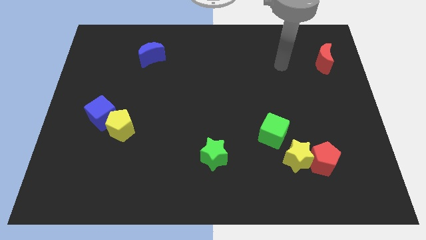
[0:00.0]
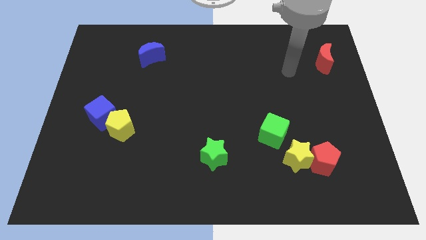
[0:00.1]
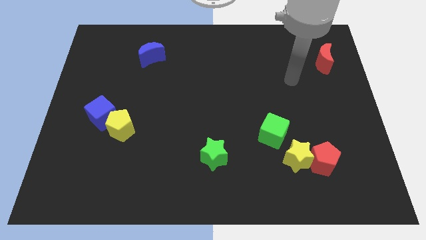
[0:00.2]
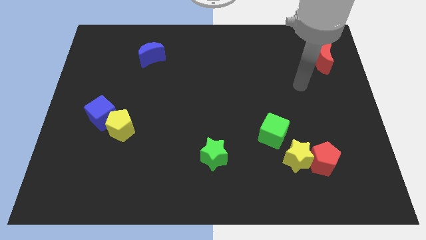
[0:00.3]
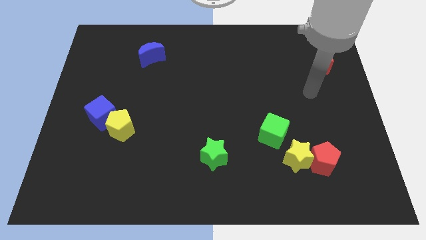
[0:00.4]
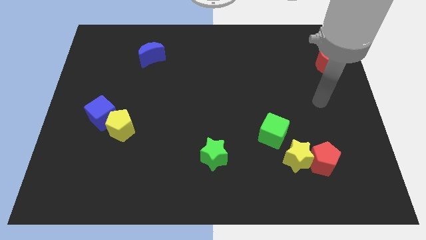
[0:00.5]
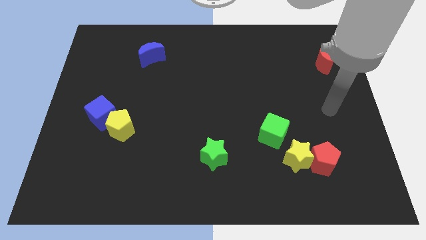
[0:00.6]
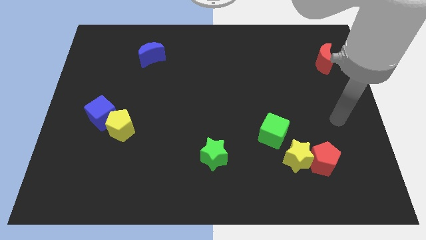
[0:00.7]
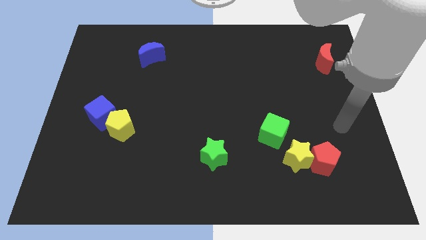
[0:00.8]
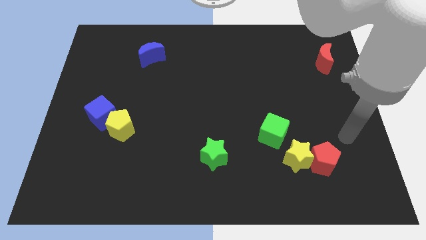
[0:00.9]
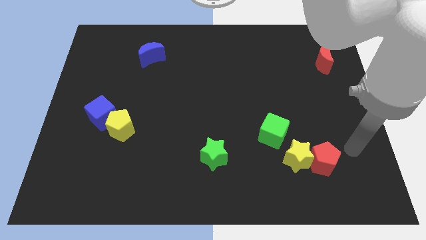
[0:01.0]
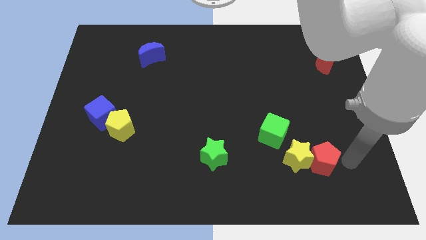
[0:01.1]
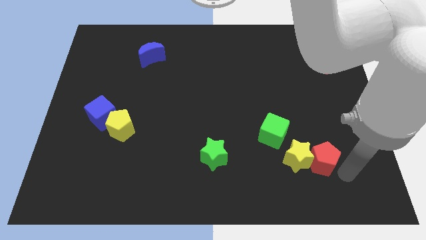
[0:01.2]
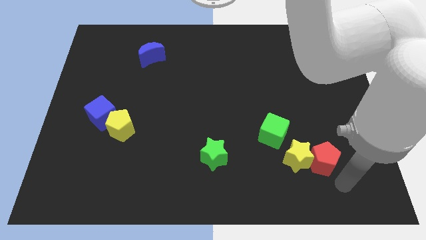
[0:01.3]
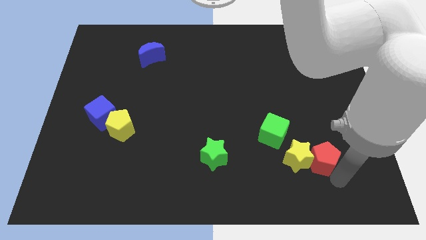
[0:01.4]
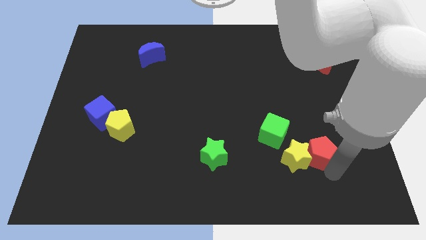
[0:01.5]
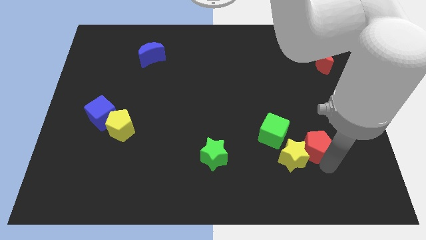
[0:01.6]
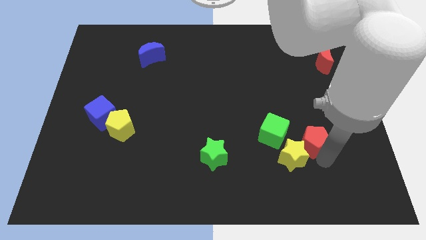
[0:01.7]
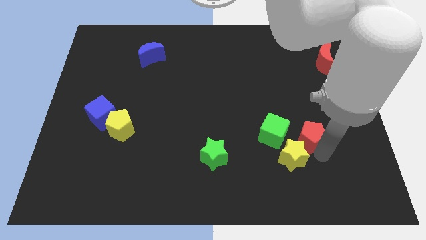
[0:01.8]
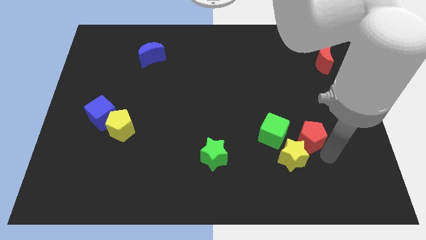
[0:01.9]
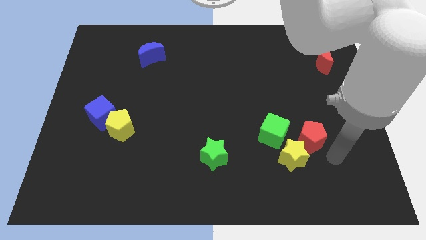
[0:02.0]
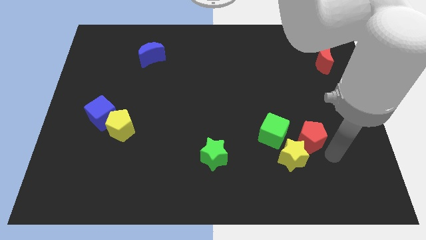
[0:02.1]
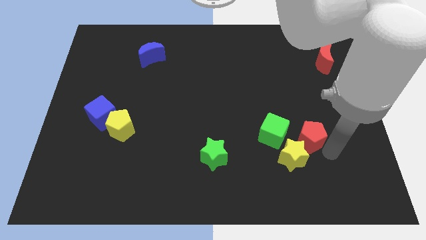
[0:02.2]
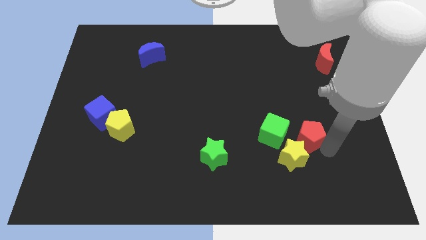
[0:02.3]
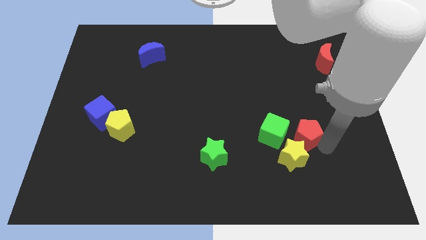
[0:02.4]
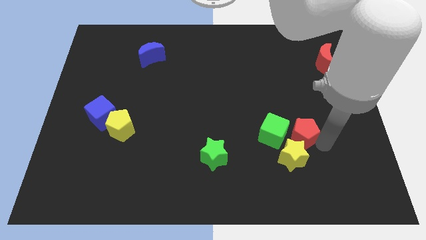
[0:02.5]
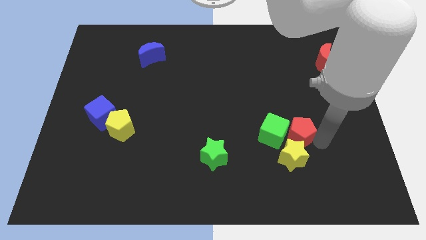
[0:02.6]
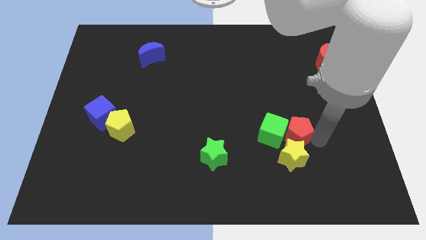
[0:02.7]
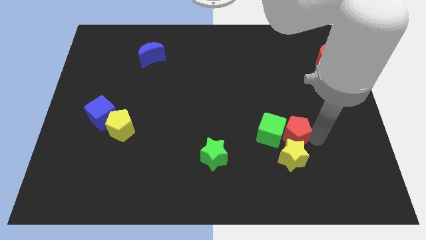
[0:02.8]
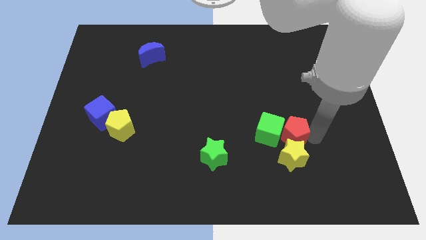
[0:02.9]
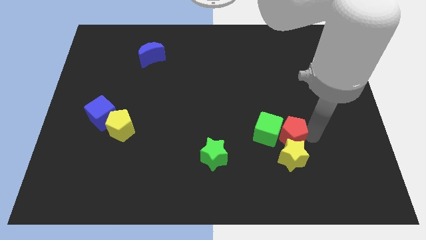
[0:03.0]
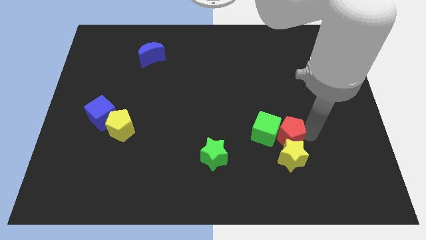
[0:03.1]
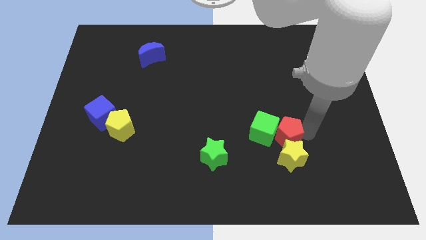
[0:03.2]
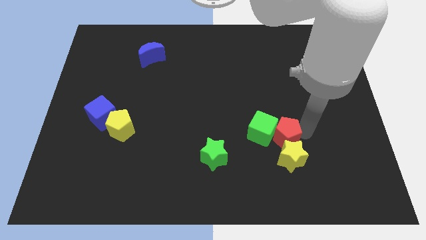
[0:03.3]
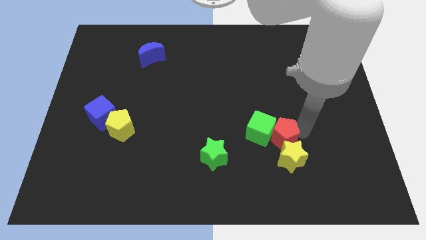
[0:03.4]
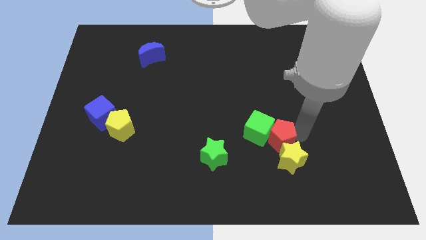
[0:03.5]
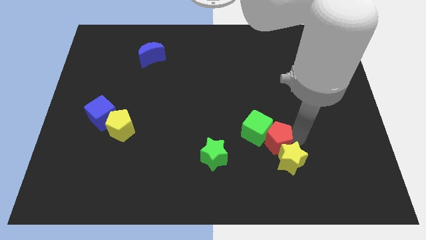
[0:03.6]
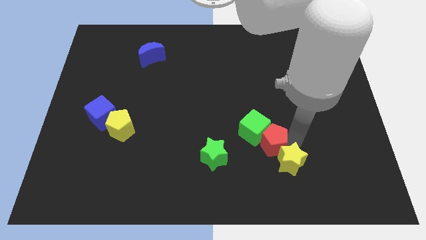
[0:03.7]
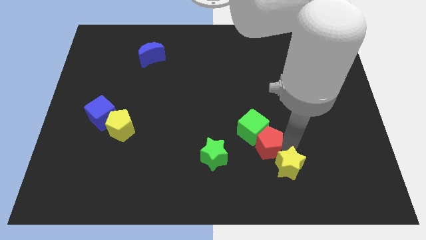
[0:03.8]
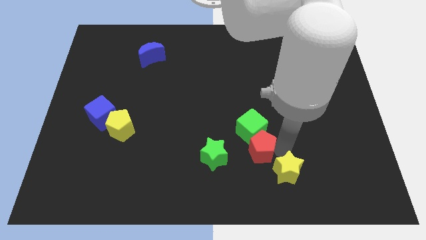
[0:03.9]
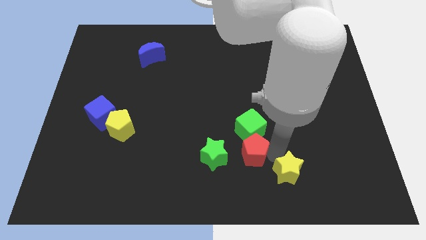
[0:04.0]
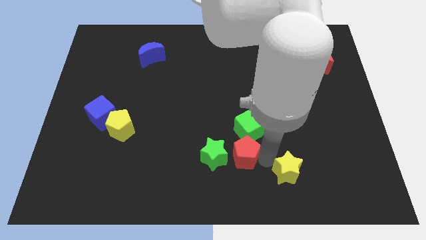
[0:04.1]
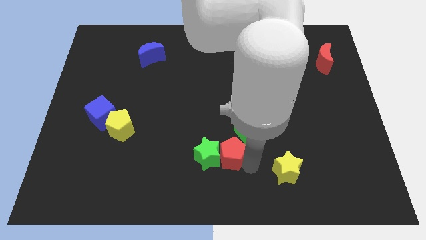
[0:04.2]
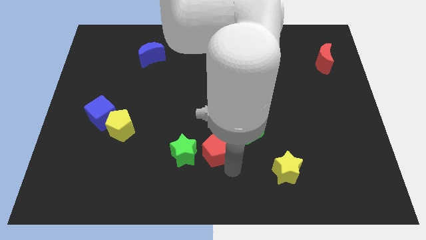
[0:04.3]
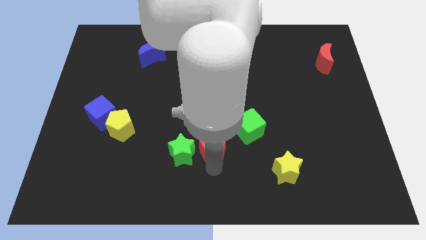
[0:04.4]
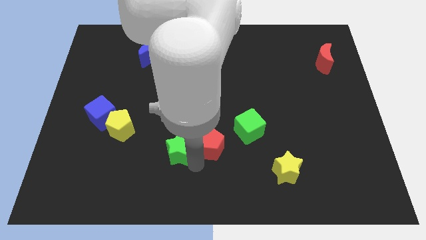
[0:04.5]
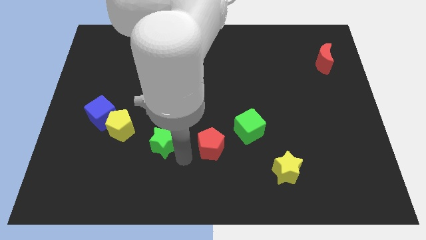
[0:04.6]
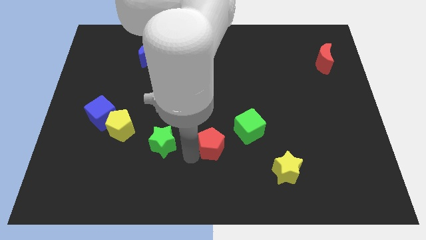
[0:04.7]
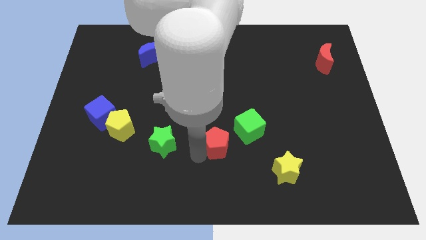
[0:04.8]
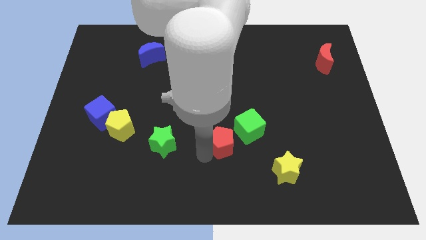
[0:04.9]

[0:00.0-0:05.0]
push the red pentagon to the middle of the board

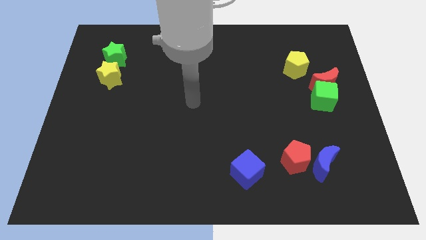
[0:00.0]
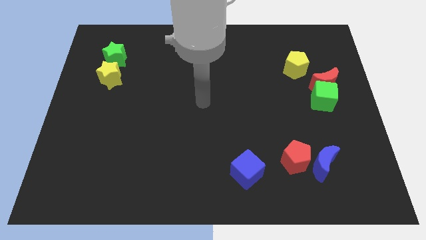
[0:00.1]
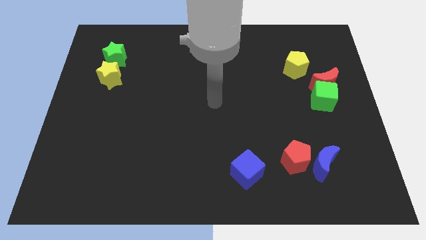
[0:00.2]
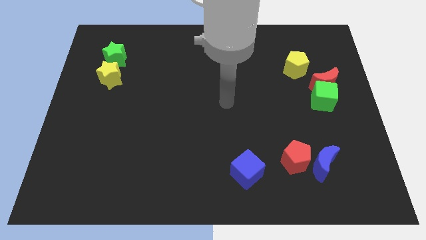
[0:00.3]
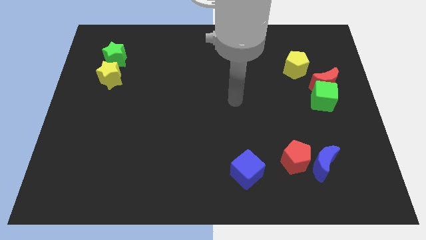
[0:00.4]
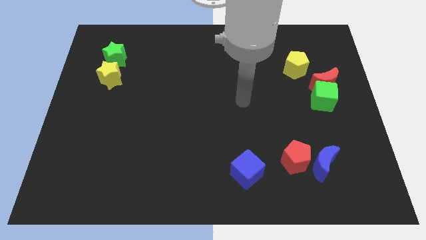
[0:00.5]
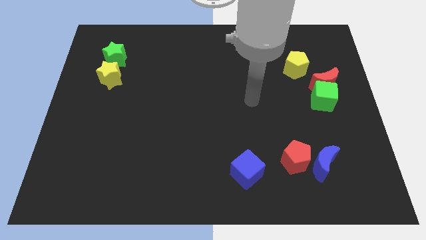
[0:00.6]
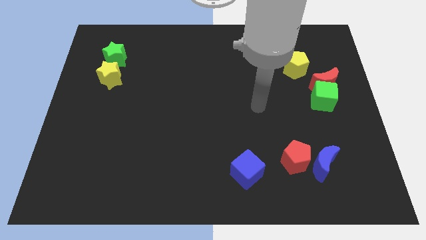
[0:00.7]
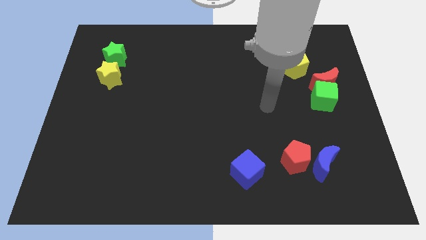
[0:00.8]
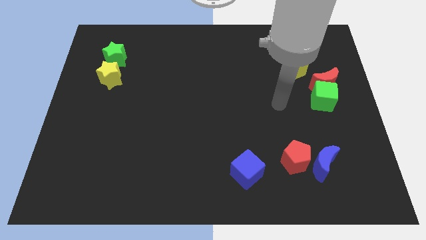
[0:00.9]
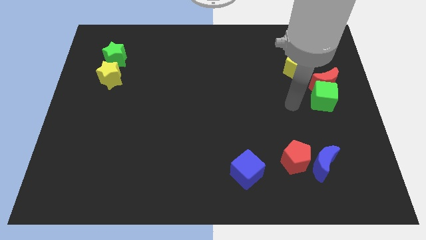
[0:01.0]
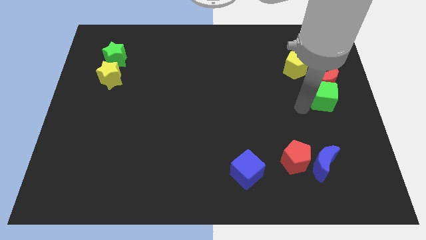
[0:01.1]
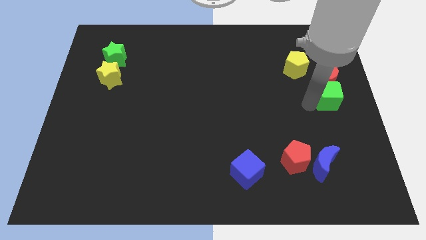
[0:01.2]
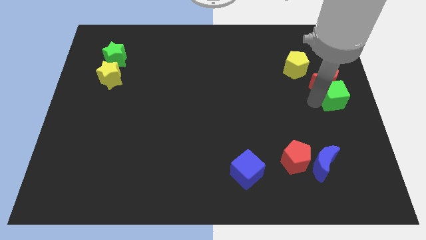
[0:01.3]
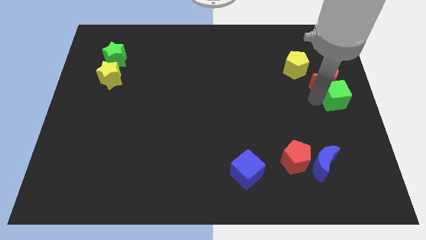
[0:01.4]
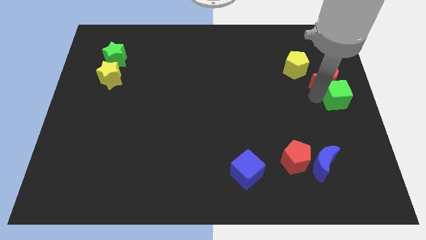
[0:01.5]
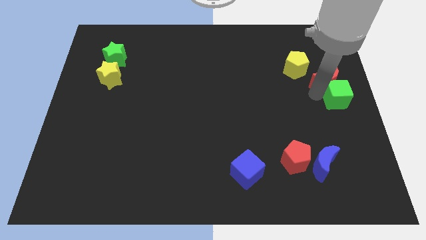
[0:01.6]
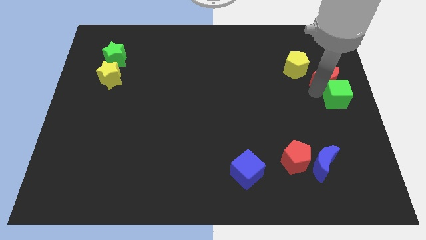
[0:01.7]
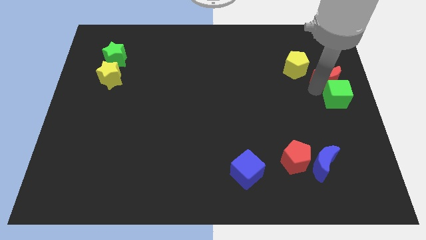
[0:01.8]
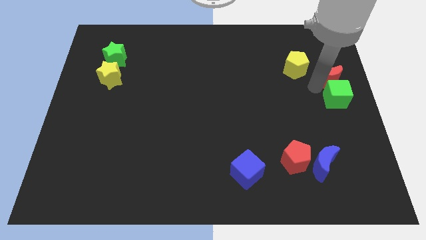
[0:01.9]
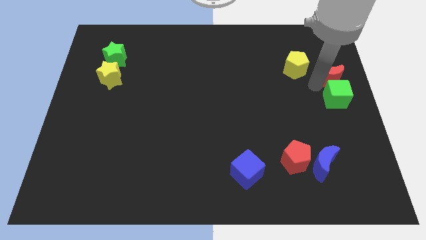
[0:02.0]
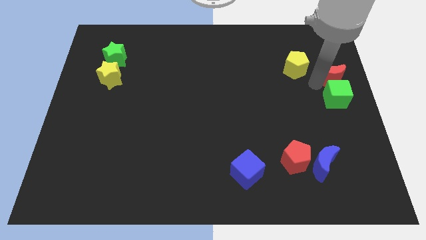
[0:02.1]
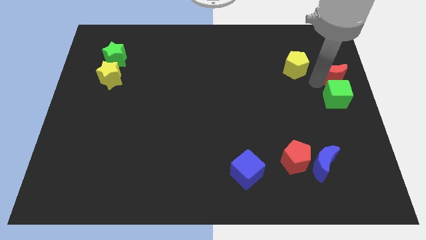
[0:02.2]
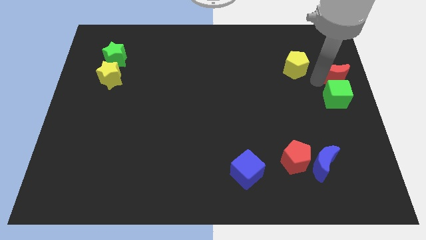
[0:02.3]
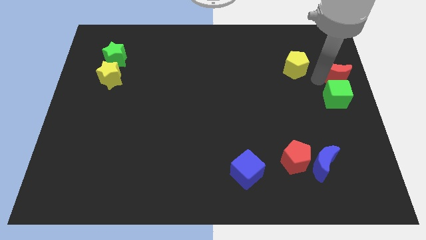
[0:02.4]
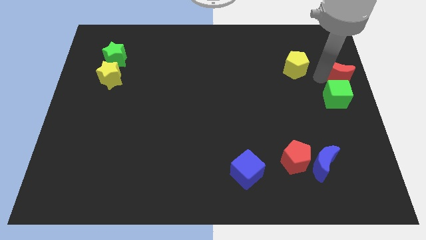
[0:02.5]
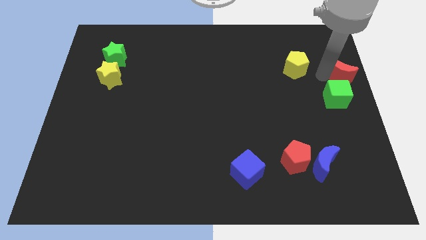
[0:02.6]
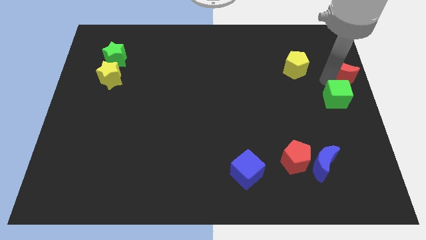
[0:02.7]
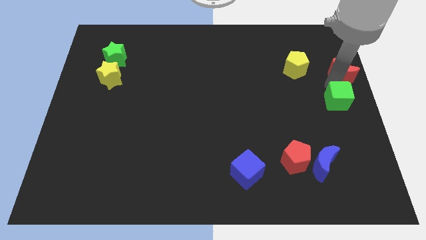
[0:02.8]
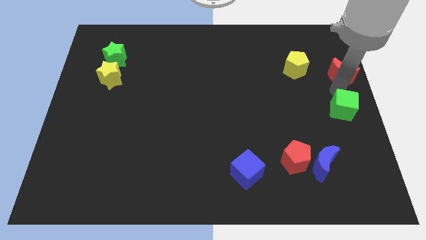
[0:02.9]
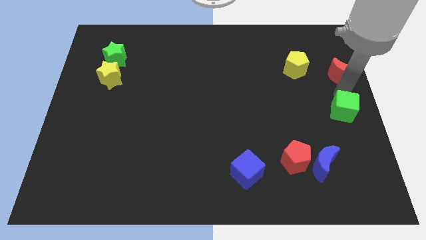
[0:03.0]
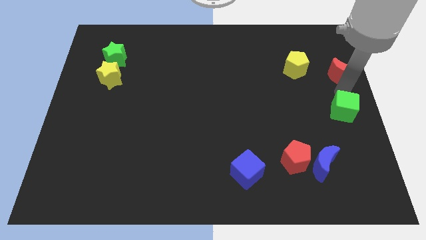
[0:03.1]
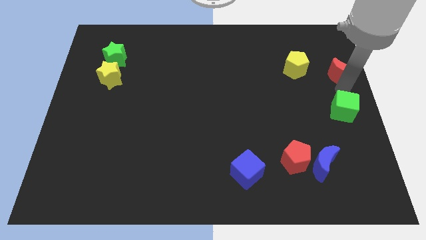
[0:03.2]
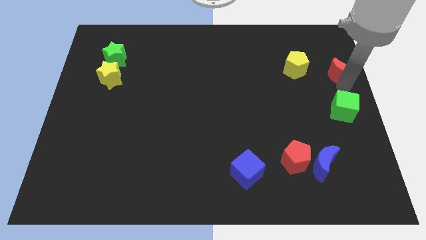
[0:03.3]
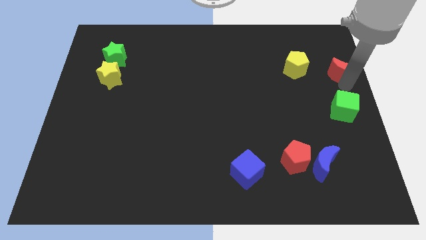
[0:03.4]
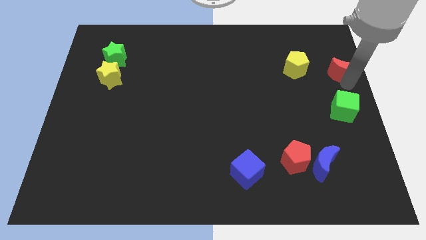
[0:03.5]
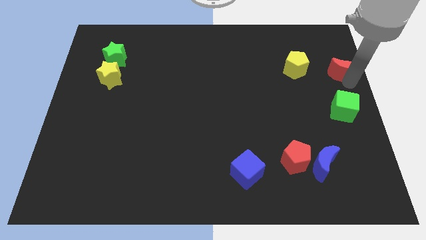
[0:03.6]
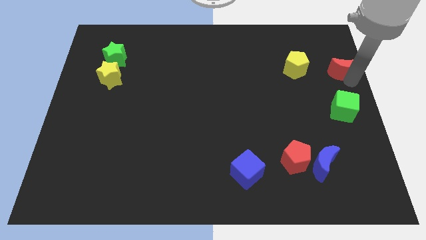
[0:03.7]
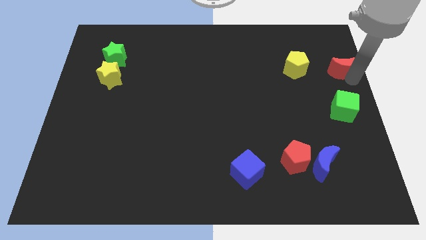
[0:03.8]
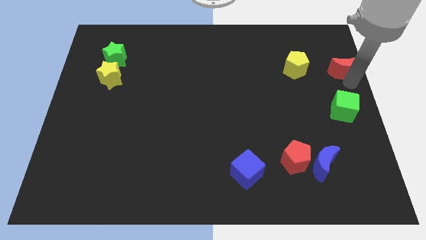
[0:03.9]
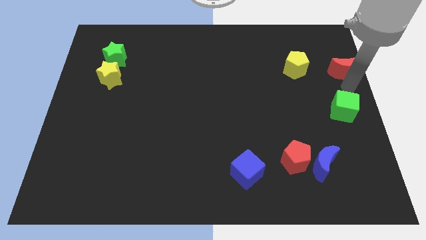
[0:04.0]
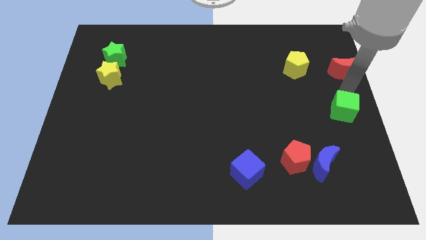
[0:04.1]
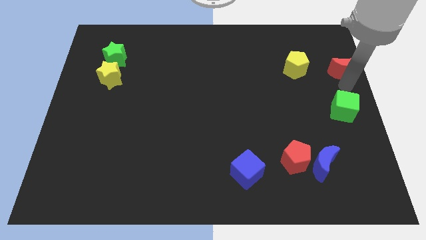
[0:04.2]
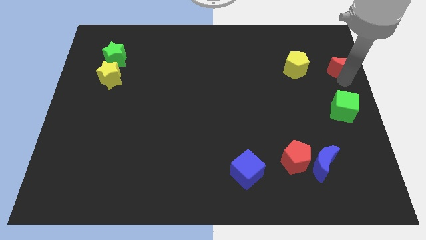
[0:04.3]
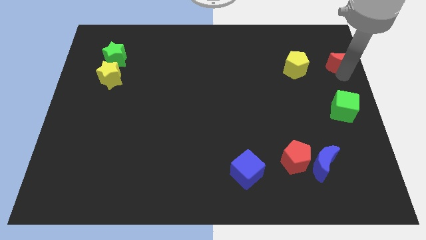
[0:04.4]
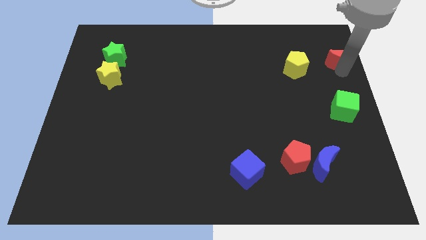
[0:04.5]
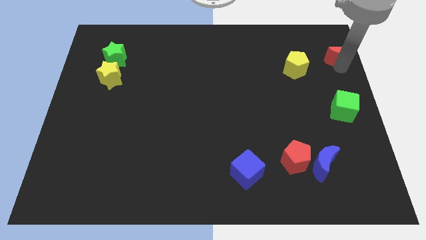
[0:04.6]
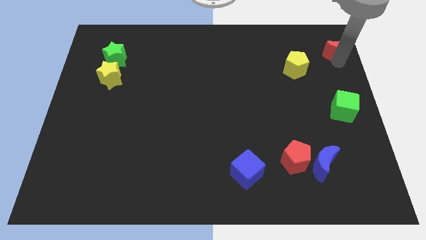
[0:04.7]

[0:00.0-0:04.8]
put the red moon to the top right corner
